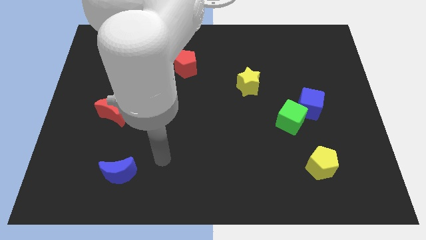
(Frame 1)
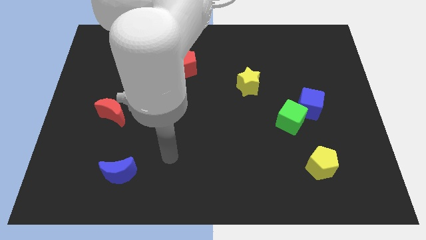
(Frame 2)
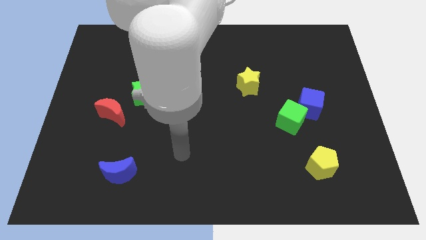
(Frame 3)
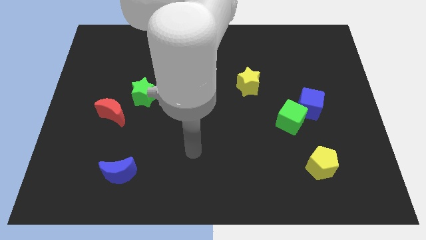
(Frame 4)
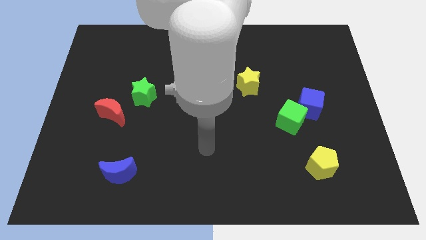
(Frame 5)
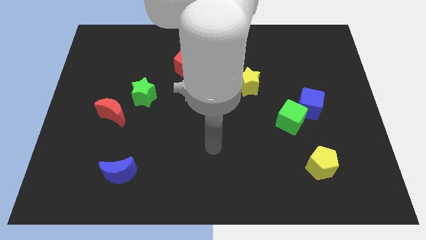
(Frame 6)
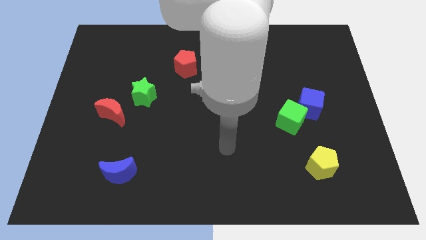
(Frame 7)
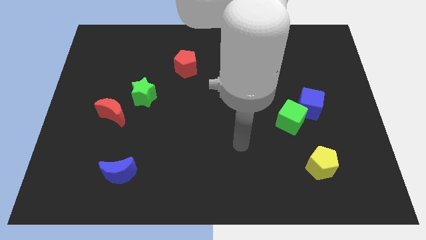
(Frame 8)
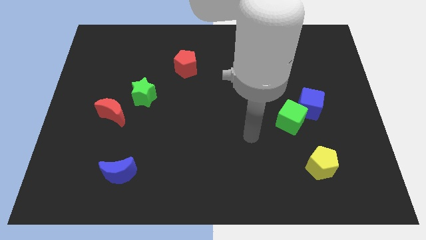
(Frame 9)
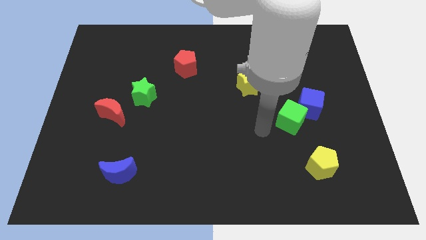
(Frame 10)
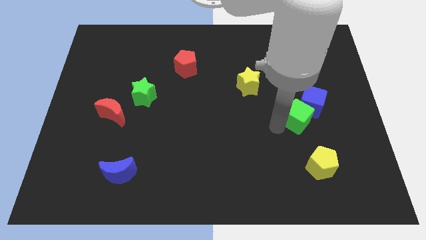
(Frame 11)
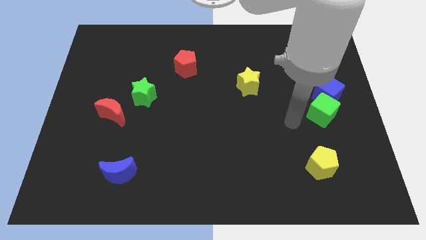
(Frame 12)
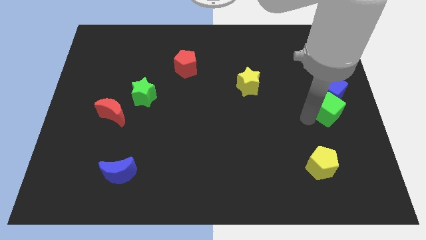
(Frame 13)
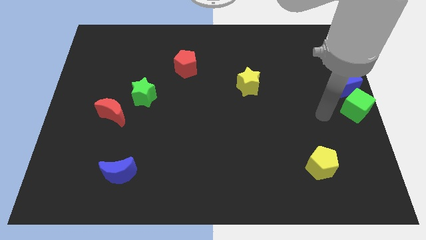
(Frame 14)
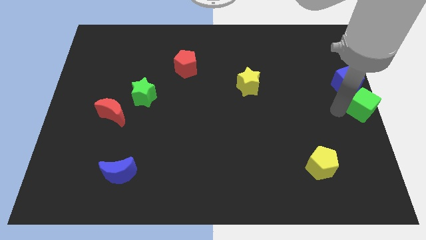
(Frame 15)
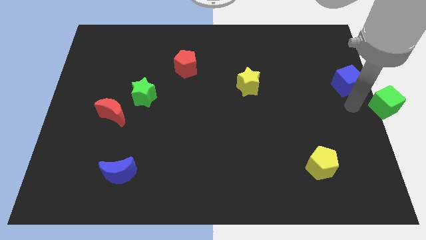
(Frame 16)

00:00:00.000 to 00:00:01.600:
separate the blue cube from the green cube

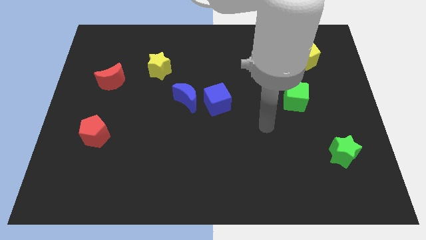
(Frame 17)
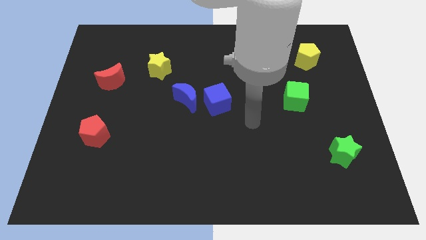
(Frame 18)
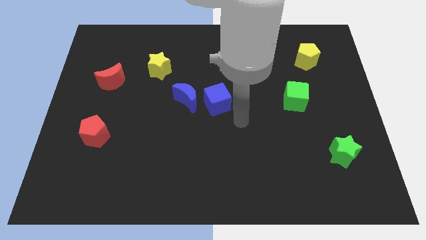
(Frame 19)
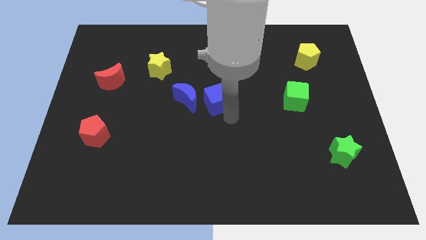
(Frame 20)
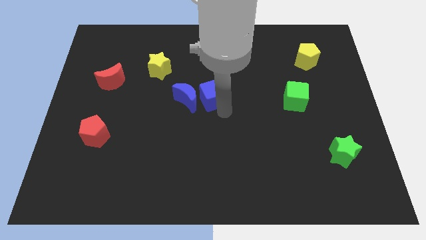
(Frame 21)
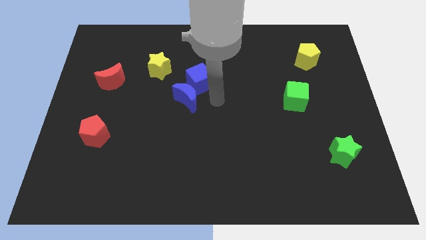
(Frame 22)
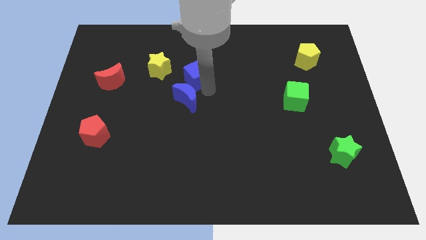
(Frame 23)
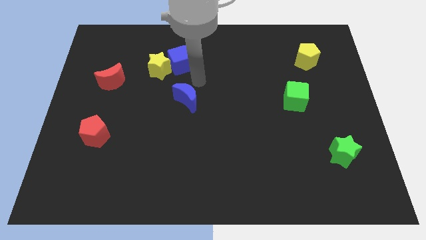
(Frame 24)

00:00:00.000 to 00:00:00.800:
move the blue moon away from the blue cube

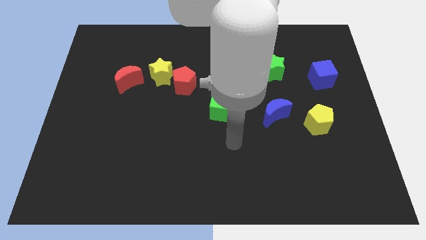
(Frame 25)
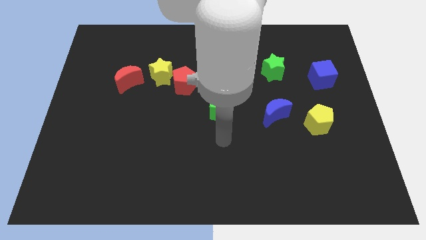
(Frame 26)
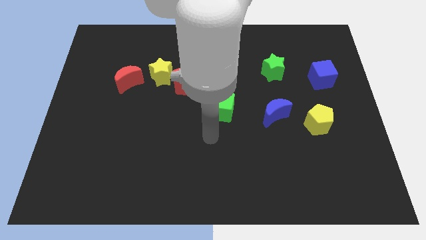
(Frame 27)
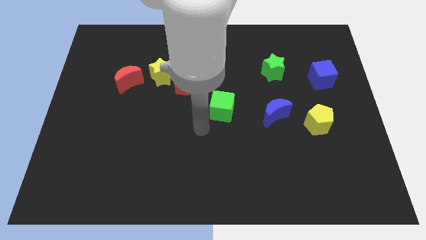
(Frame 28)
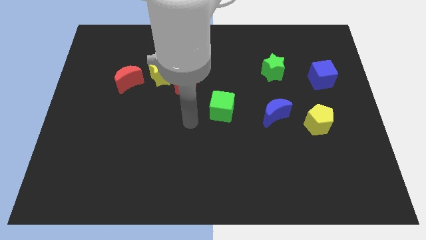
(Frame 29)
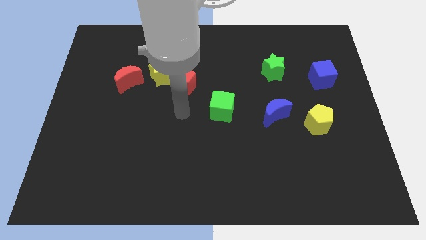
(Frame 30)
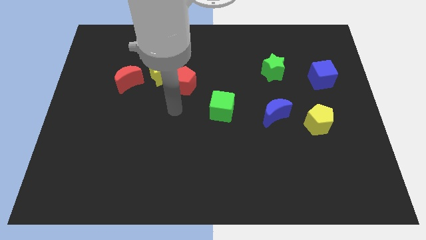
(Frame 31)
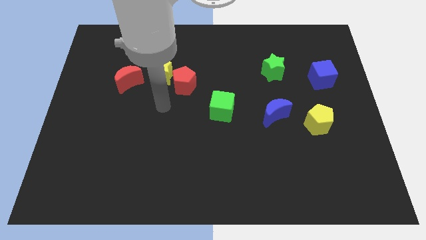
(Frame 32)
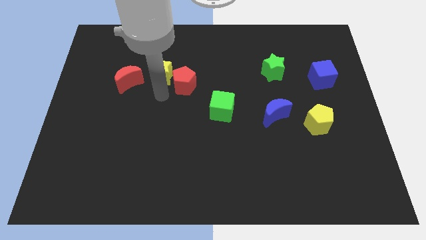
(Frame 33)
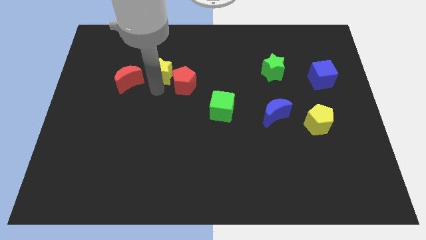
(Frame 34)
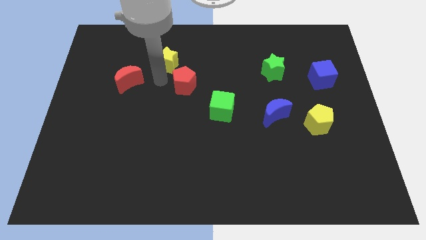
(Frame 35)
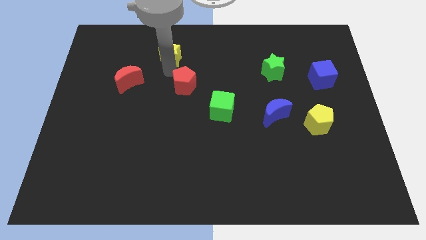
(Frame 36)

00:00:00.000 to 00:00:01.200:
move the red pentagon away from the yellow star

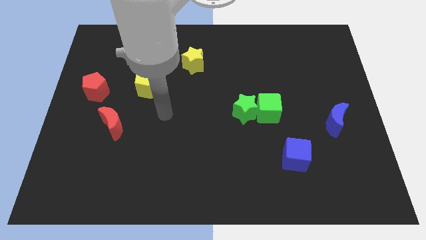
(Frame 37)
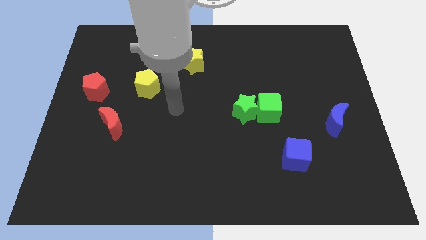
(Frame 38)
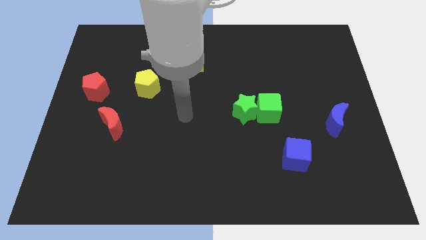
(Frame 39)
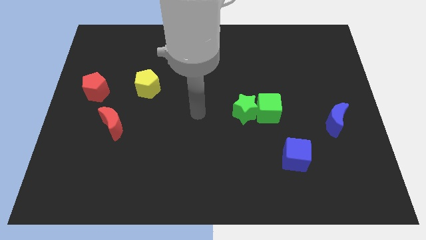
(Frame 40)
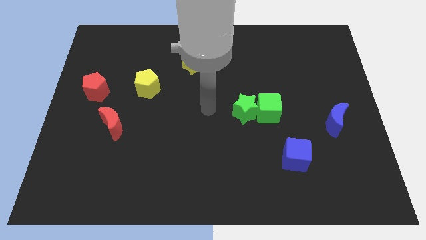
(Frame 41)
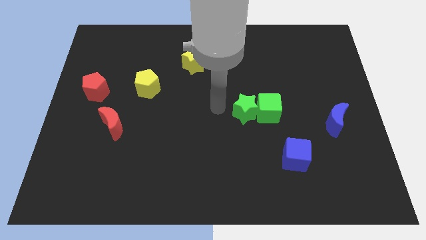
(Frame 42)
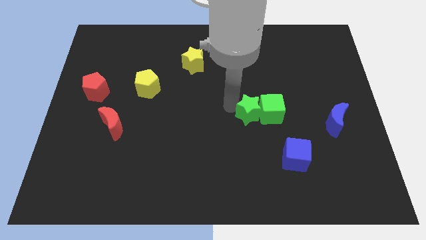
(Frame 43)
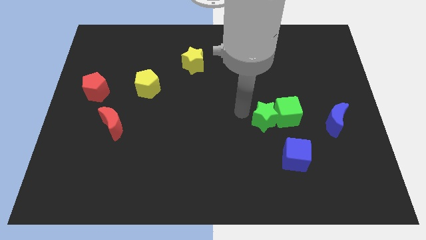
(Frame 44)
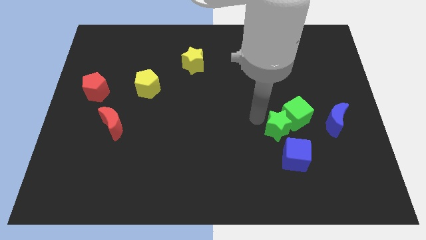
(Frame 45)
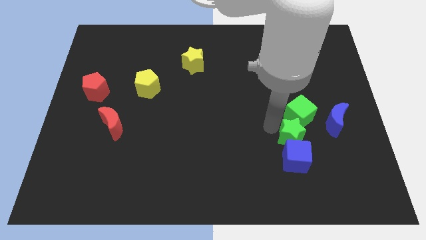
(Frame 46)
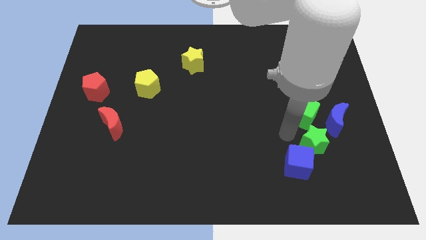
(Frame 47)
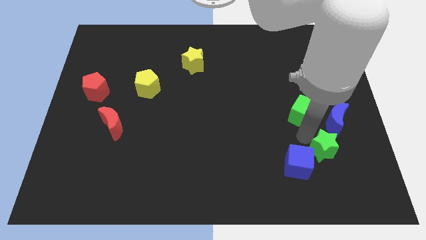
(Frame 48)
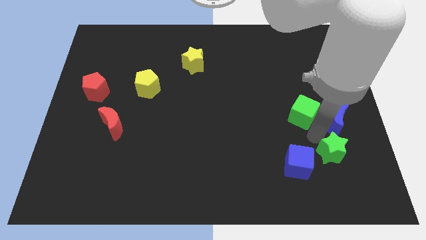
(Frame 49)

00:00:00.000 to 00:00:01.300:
move the green cube away from the green star

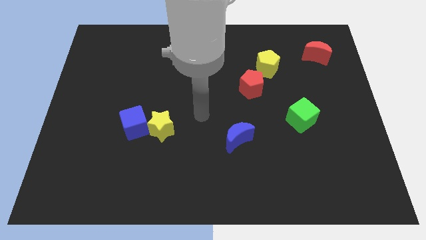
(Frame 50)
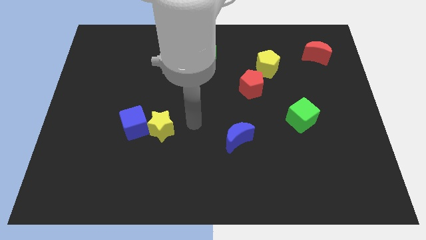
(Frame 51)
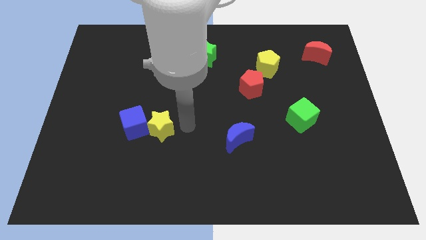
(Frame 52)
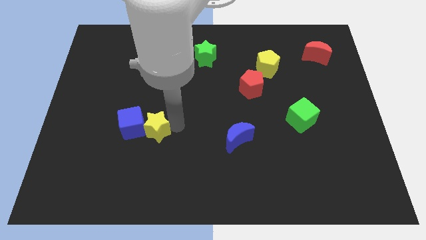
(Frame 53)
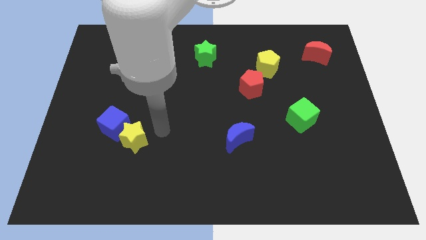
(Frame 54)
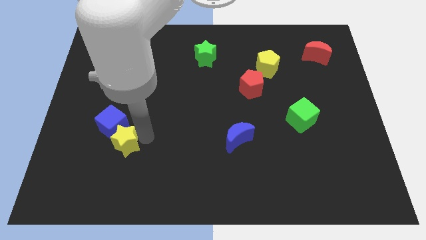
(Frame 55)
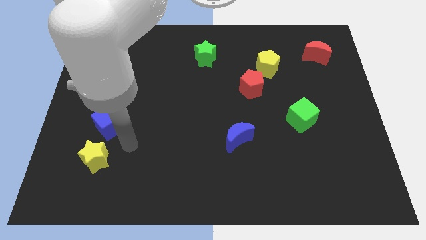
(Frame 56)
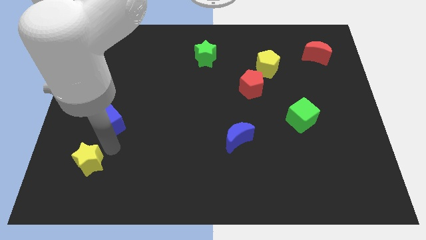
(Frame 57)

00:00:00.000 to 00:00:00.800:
separate the blue cube from the yellow star

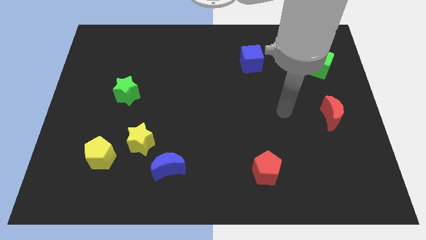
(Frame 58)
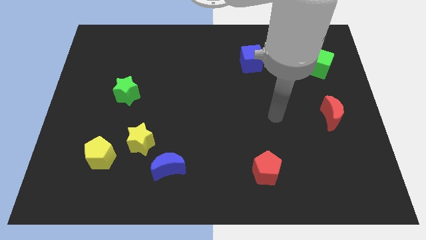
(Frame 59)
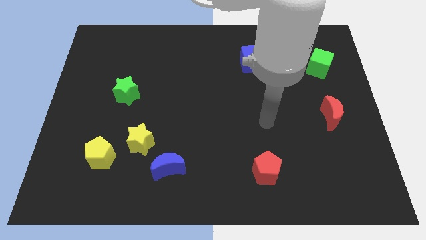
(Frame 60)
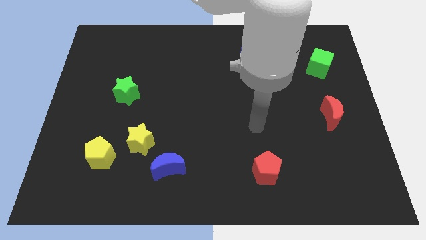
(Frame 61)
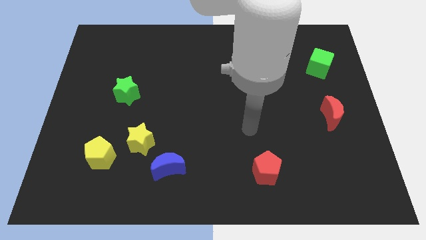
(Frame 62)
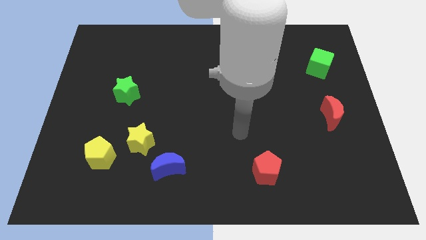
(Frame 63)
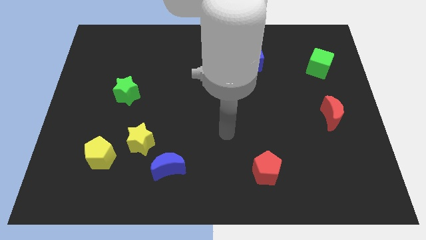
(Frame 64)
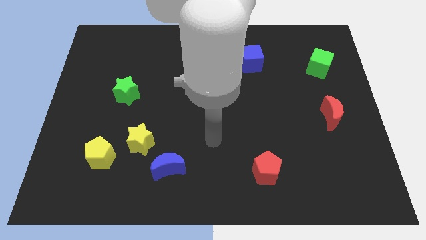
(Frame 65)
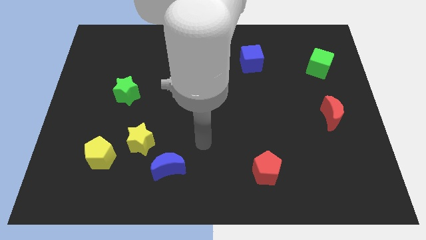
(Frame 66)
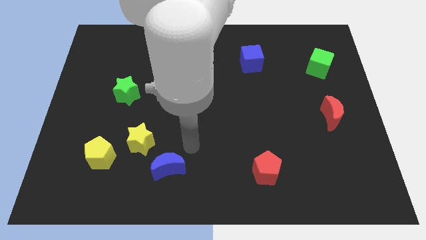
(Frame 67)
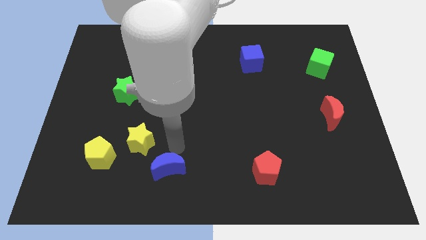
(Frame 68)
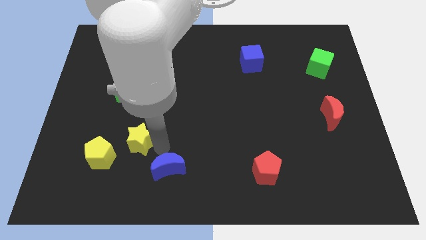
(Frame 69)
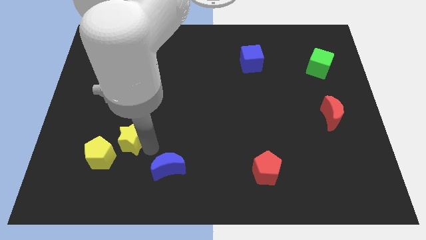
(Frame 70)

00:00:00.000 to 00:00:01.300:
separate the blue moon from the yellow star

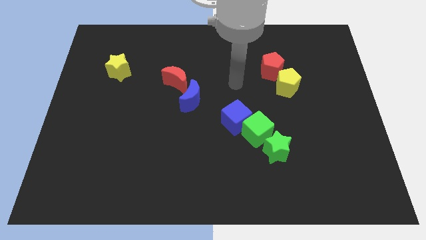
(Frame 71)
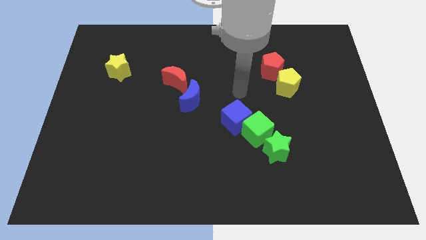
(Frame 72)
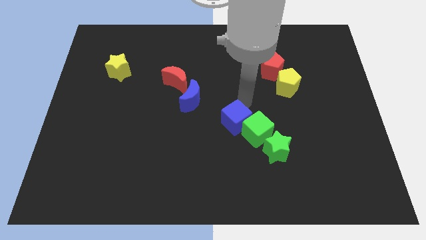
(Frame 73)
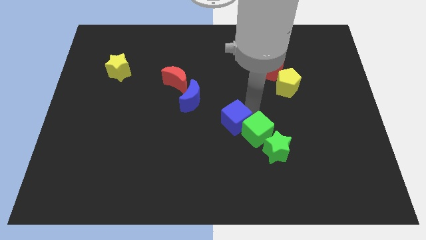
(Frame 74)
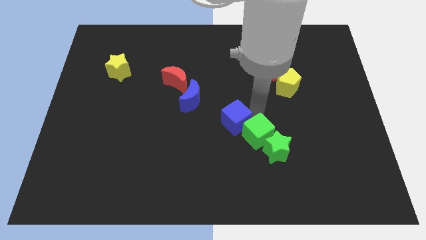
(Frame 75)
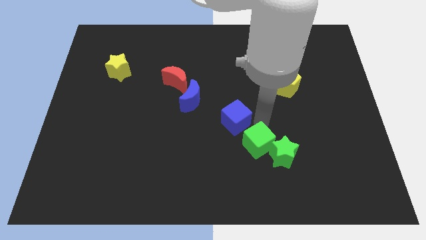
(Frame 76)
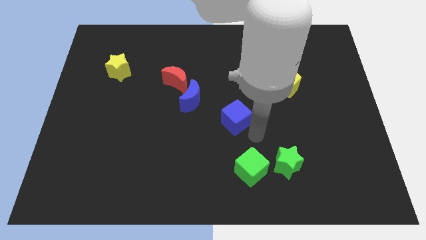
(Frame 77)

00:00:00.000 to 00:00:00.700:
pull the blue cube apart from the green cube

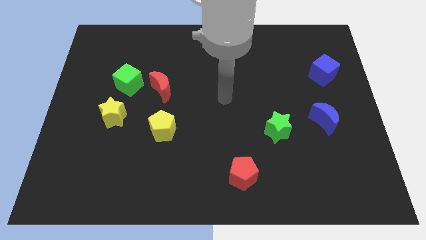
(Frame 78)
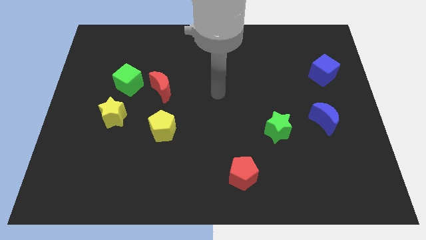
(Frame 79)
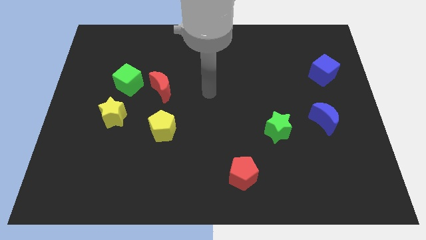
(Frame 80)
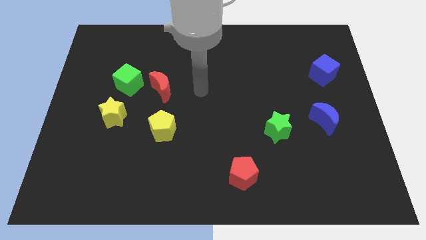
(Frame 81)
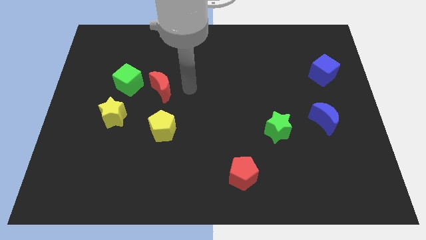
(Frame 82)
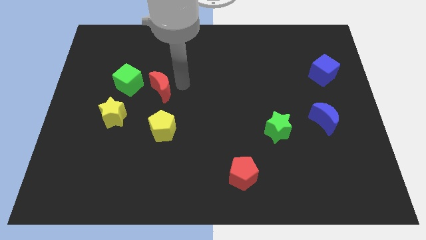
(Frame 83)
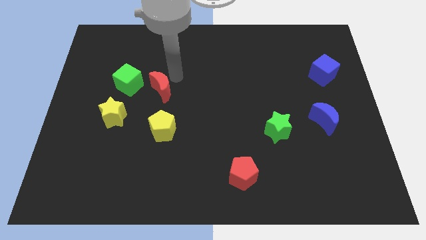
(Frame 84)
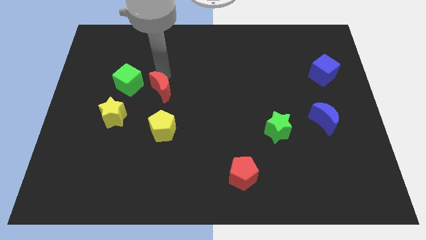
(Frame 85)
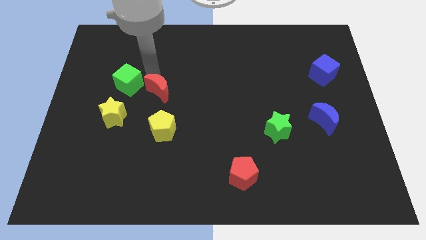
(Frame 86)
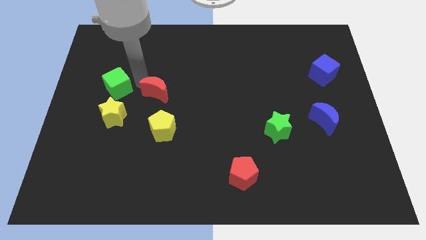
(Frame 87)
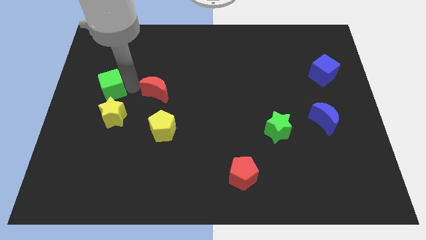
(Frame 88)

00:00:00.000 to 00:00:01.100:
pull the red moon apart from the green cube

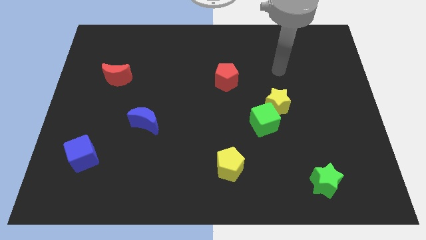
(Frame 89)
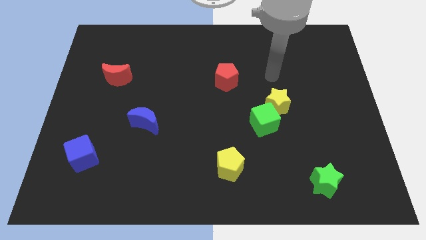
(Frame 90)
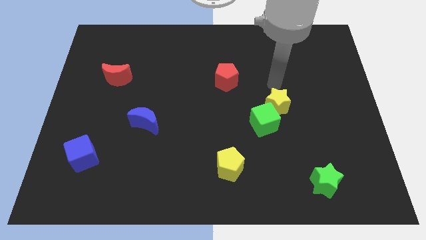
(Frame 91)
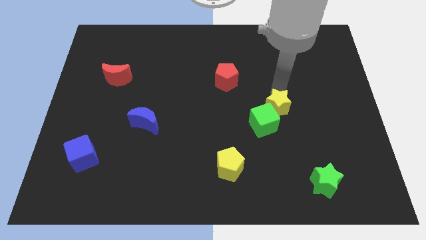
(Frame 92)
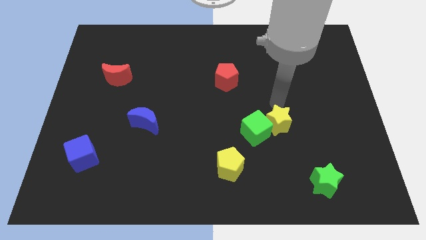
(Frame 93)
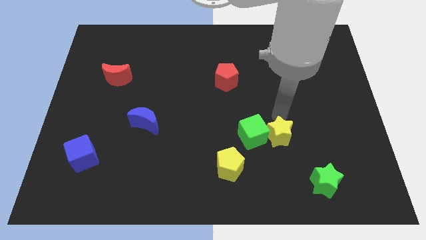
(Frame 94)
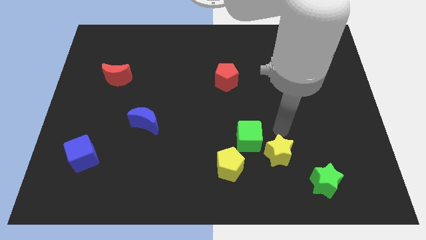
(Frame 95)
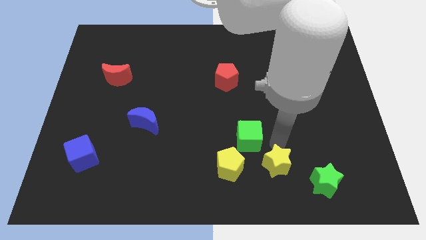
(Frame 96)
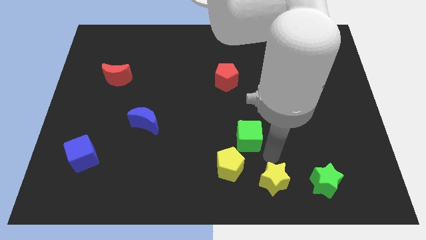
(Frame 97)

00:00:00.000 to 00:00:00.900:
move the green cube away from the yellow star
